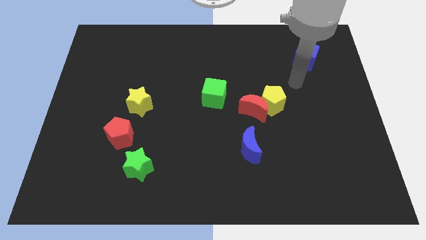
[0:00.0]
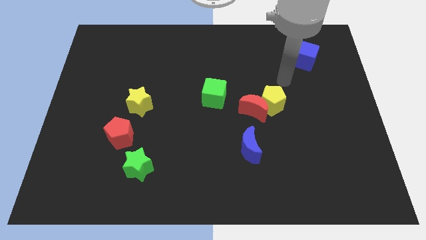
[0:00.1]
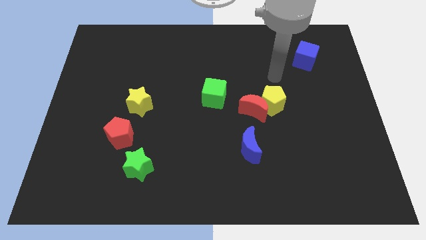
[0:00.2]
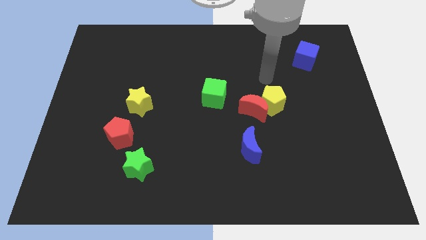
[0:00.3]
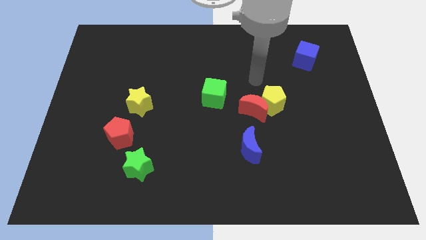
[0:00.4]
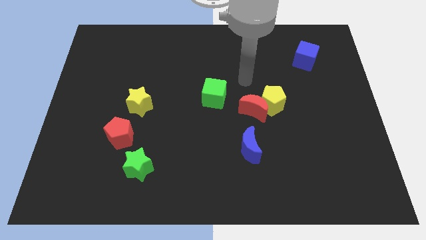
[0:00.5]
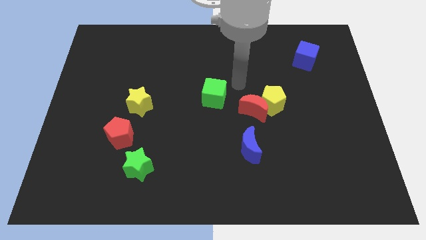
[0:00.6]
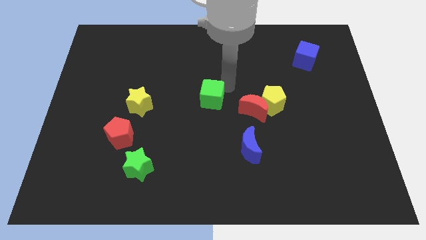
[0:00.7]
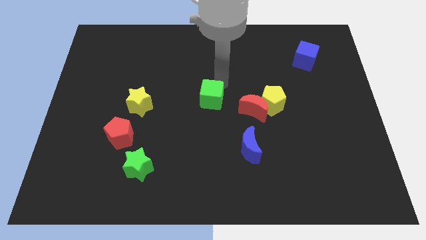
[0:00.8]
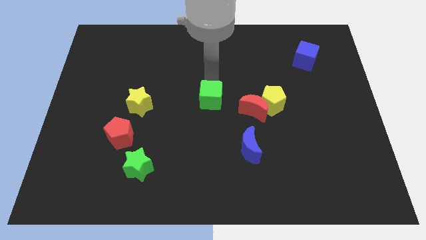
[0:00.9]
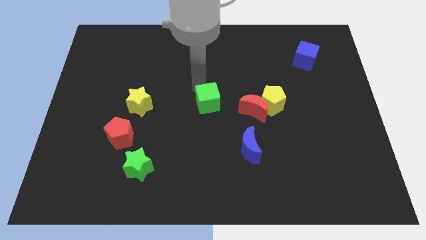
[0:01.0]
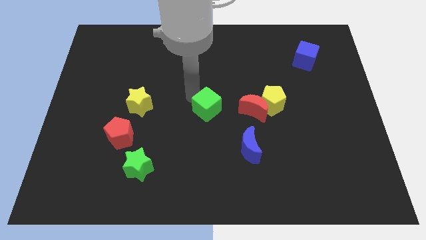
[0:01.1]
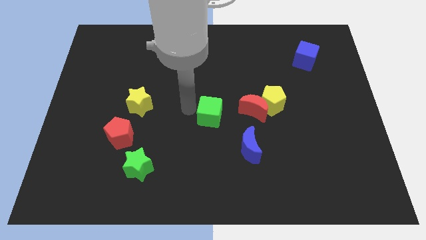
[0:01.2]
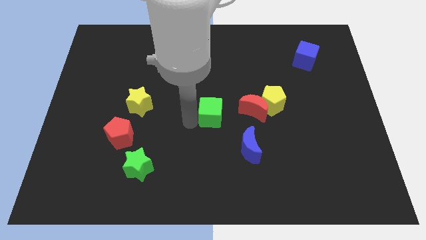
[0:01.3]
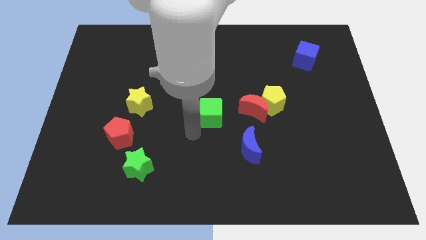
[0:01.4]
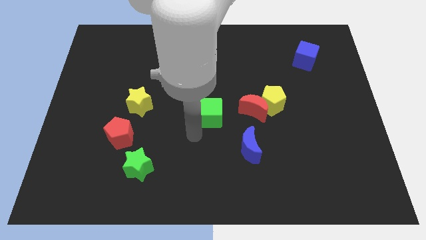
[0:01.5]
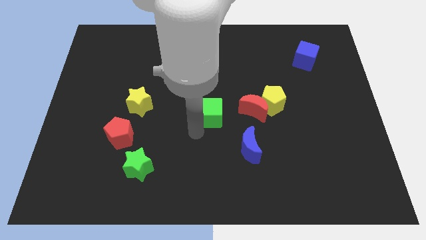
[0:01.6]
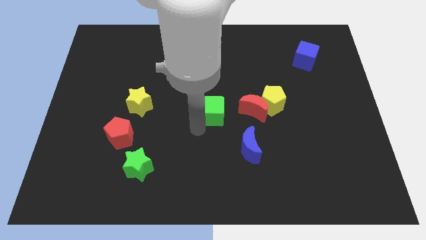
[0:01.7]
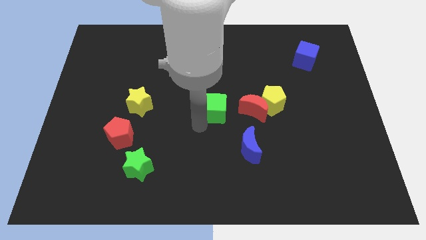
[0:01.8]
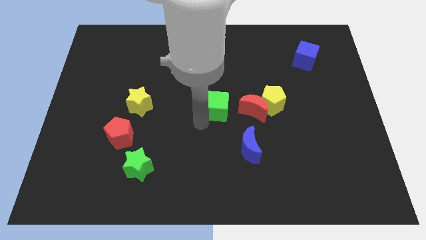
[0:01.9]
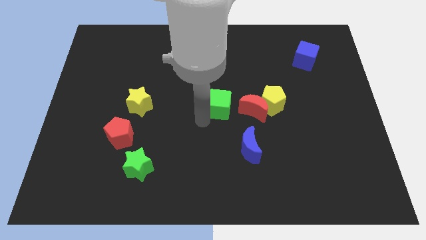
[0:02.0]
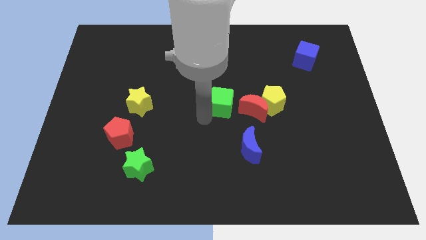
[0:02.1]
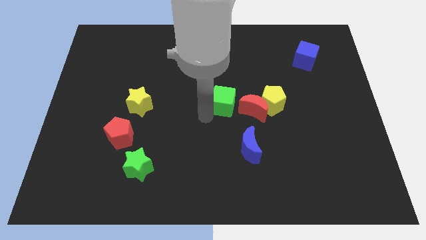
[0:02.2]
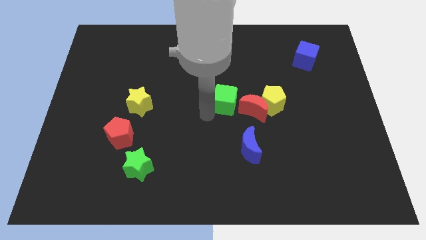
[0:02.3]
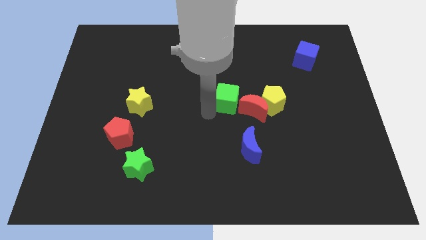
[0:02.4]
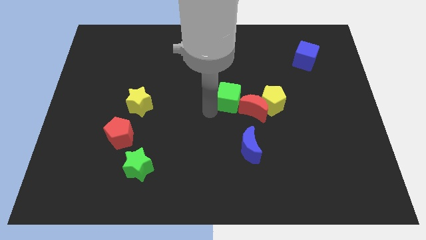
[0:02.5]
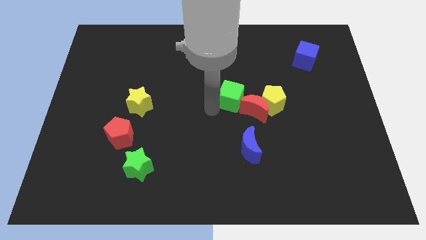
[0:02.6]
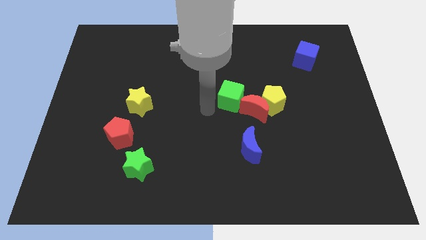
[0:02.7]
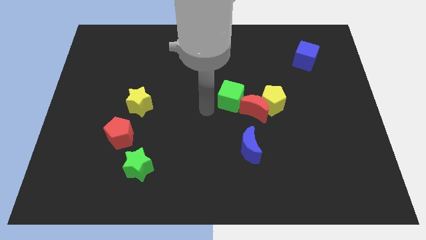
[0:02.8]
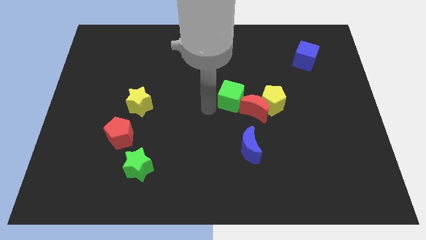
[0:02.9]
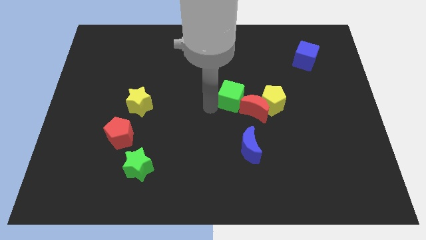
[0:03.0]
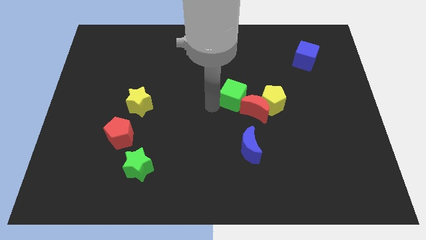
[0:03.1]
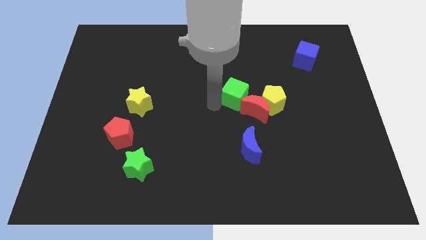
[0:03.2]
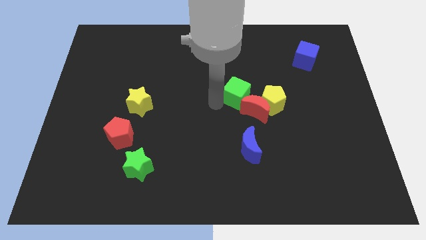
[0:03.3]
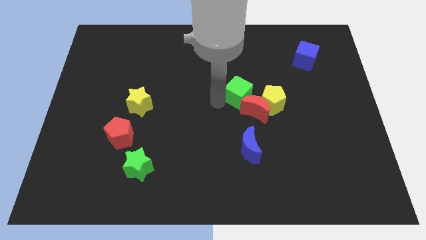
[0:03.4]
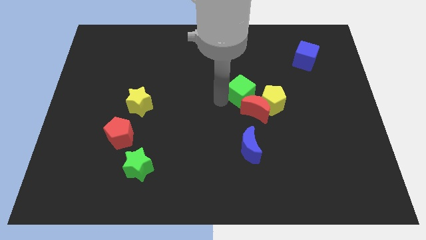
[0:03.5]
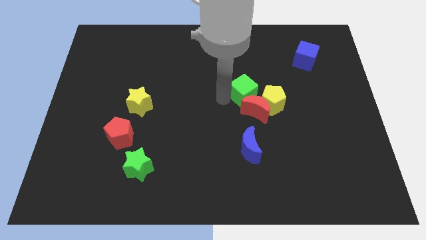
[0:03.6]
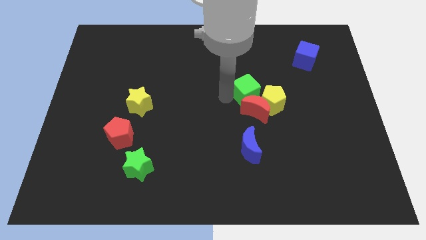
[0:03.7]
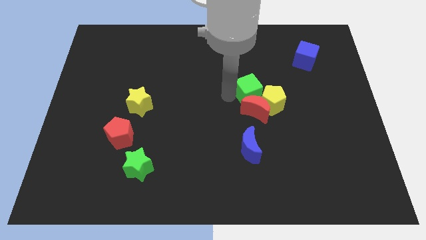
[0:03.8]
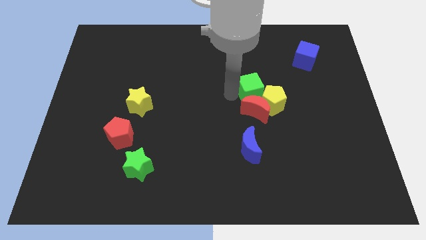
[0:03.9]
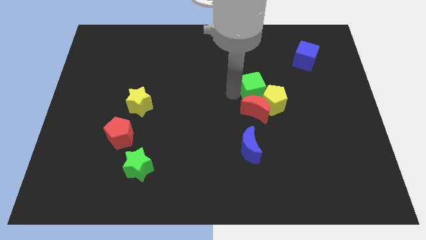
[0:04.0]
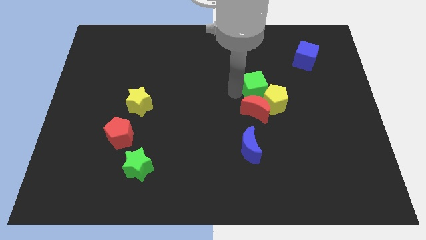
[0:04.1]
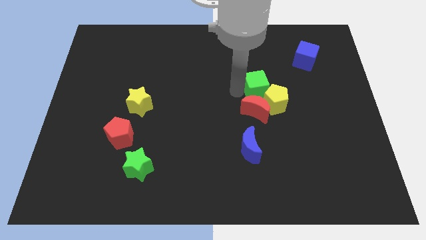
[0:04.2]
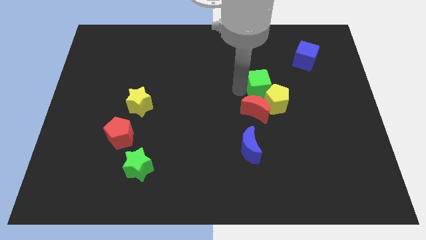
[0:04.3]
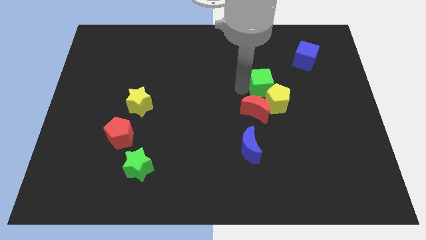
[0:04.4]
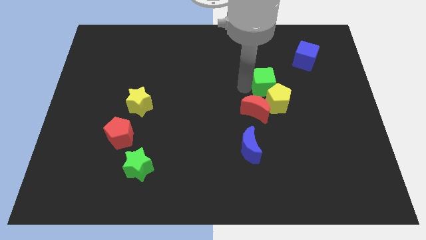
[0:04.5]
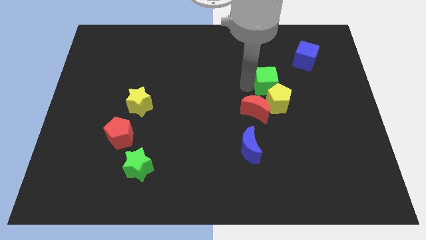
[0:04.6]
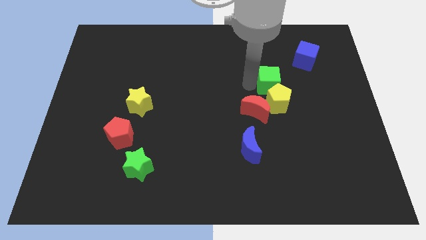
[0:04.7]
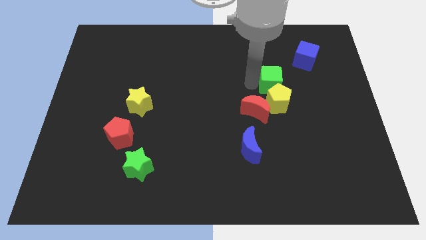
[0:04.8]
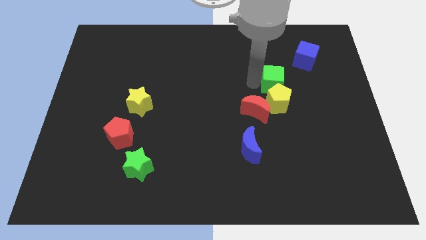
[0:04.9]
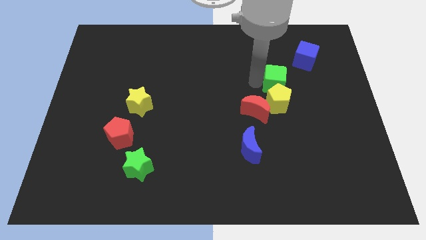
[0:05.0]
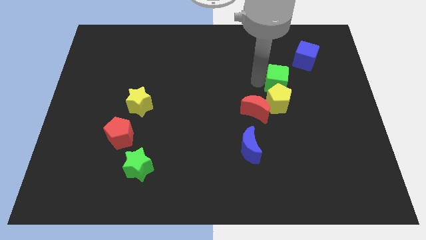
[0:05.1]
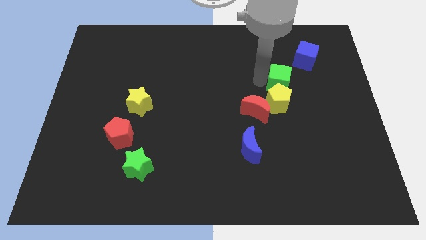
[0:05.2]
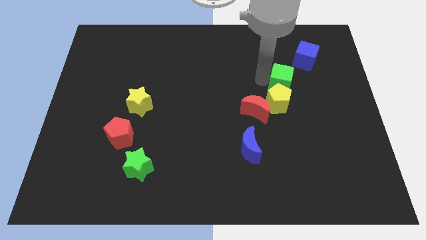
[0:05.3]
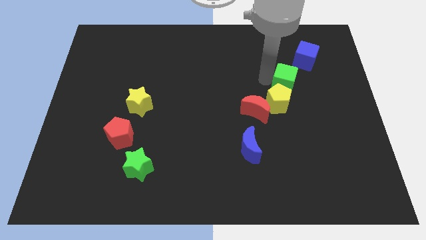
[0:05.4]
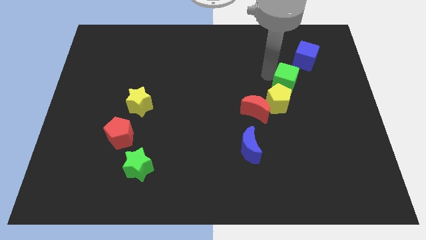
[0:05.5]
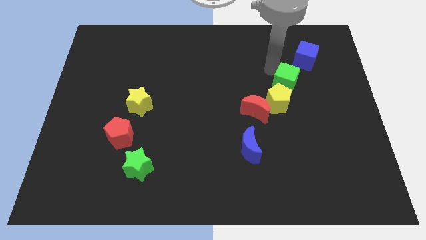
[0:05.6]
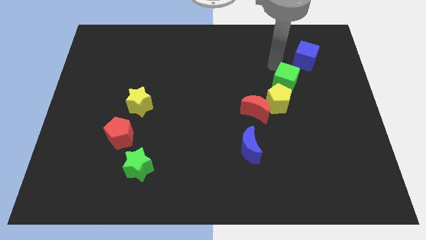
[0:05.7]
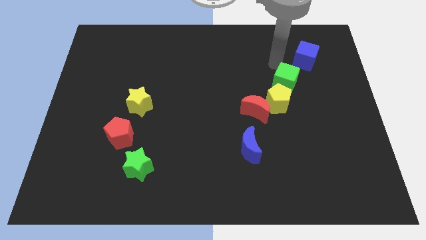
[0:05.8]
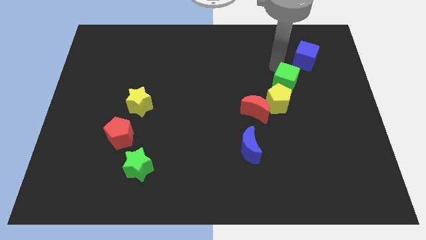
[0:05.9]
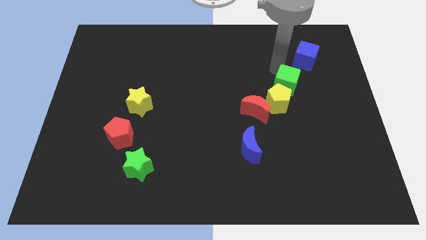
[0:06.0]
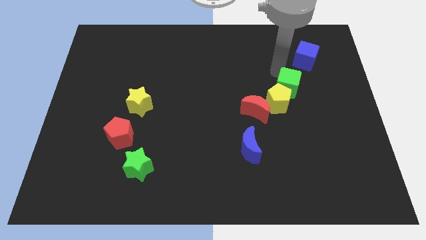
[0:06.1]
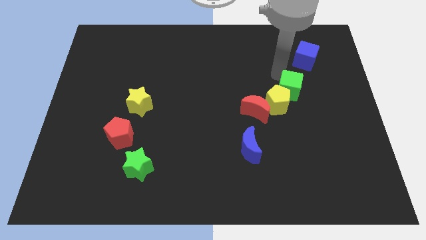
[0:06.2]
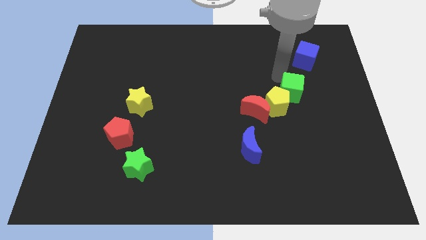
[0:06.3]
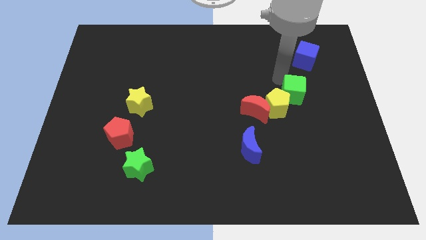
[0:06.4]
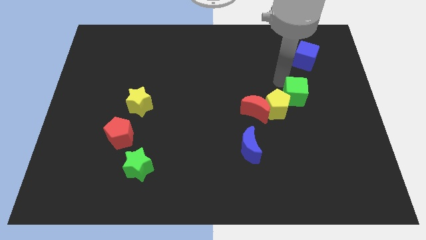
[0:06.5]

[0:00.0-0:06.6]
push the green cube right of the red moon

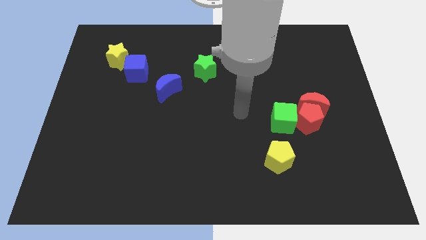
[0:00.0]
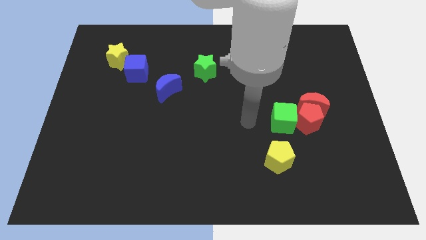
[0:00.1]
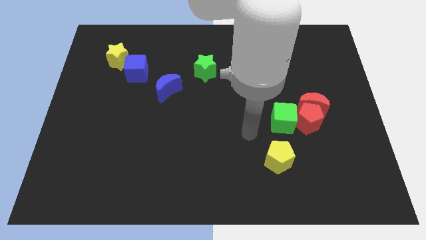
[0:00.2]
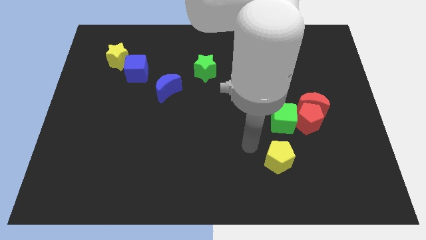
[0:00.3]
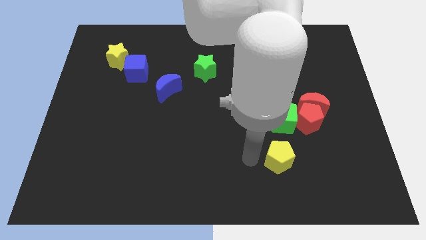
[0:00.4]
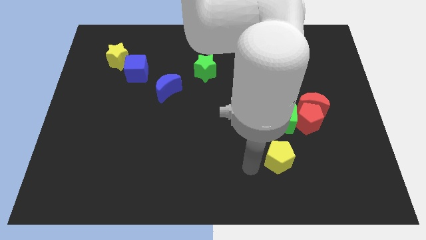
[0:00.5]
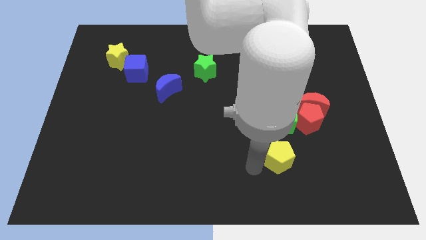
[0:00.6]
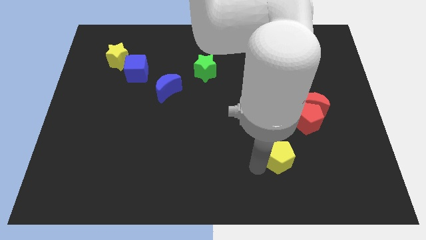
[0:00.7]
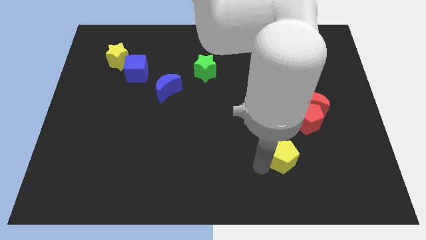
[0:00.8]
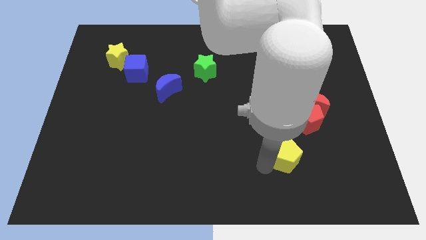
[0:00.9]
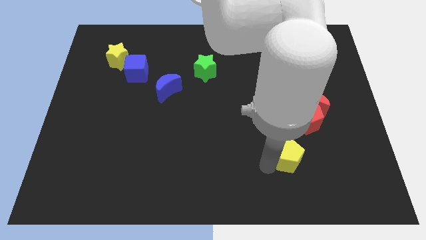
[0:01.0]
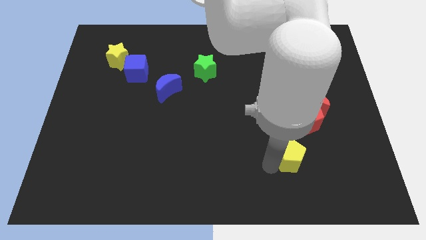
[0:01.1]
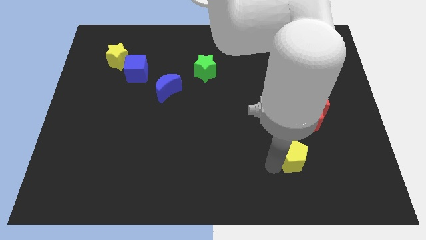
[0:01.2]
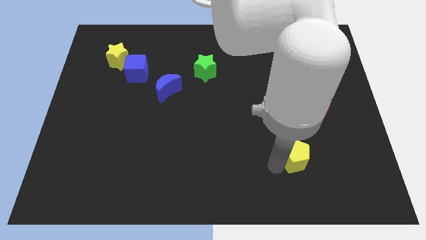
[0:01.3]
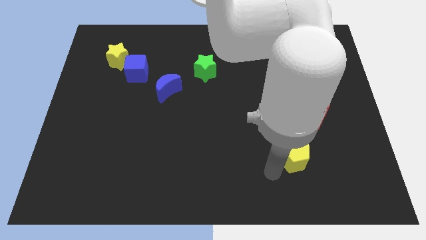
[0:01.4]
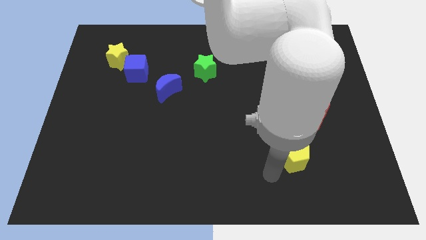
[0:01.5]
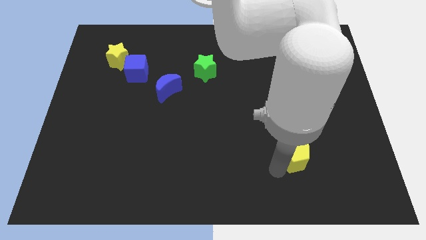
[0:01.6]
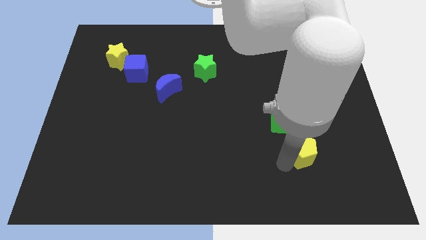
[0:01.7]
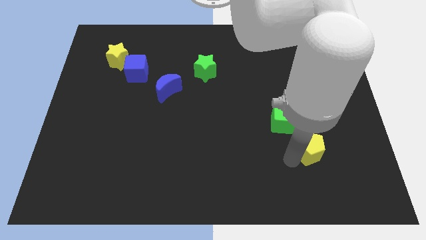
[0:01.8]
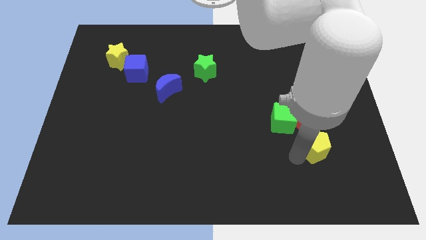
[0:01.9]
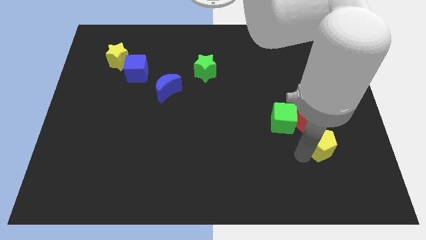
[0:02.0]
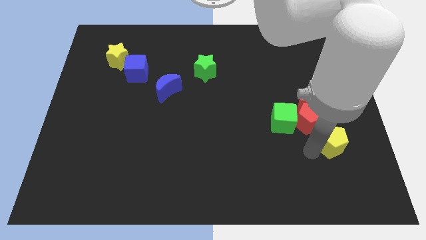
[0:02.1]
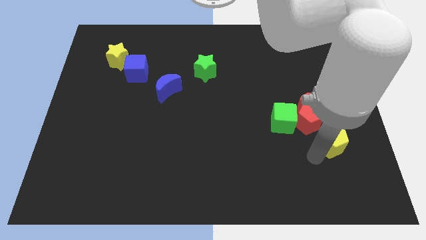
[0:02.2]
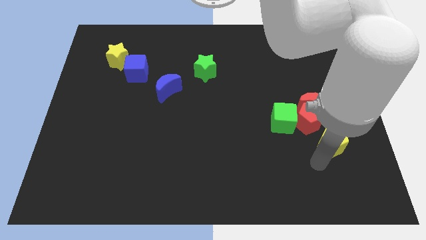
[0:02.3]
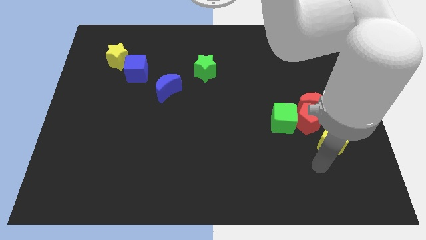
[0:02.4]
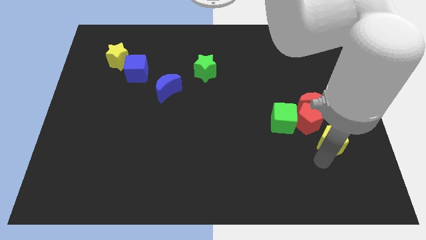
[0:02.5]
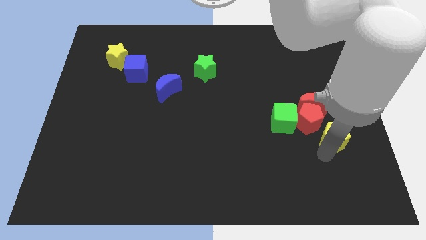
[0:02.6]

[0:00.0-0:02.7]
move the yellow pentagon diagonally down and to the right of the red moon
